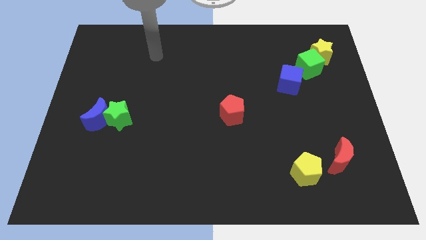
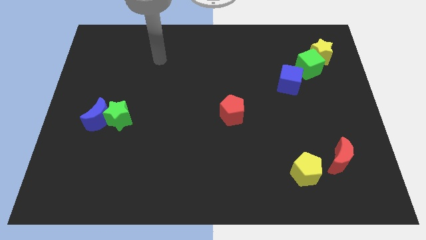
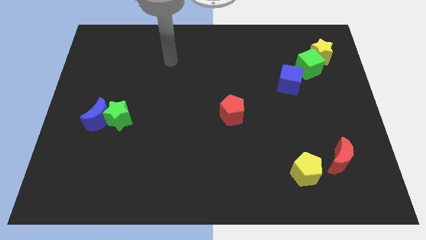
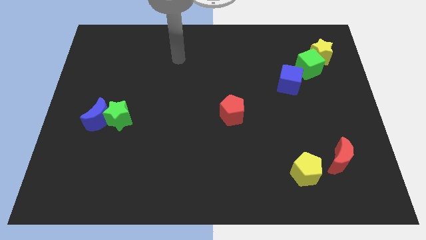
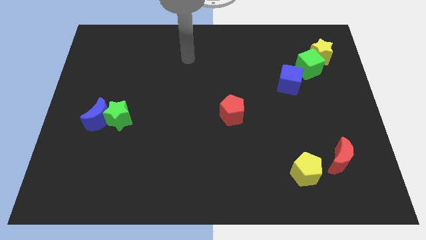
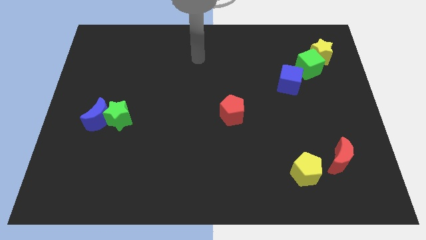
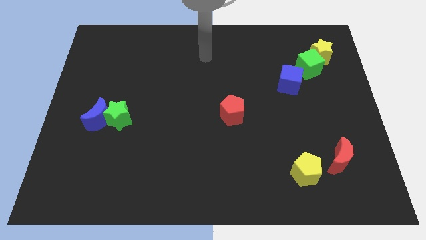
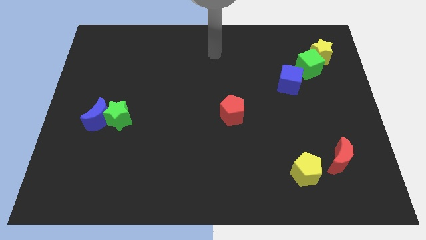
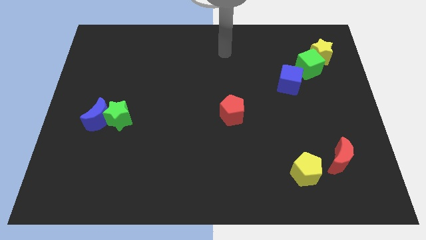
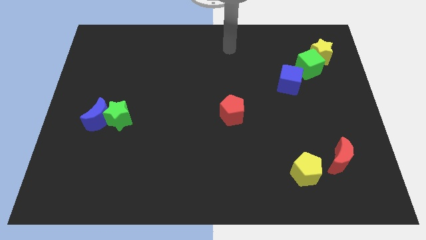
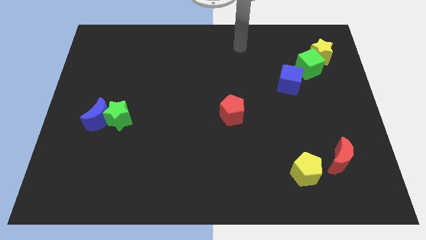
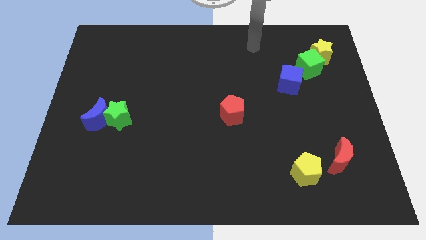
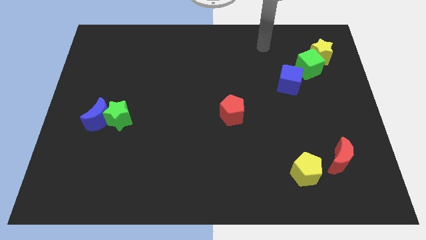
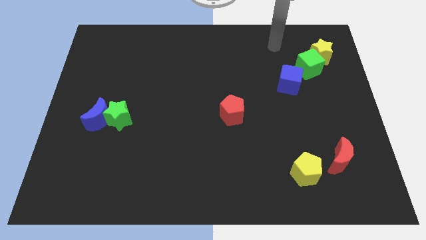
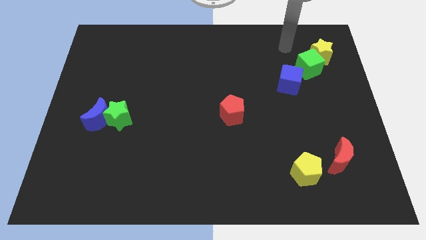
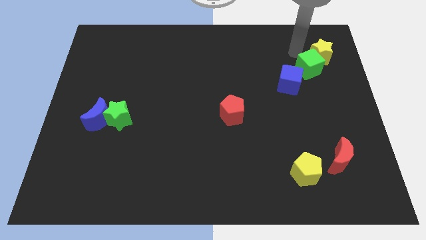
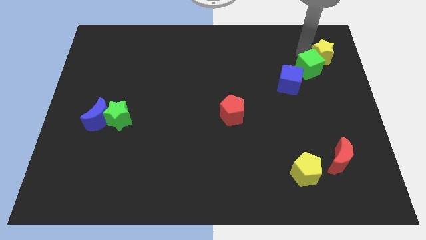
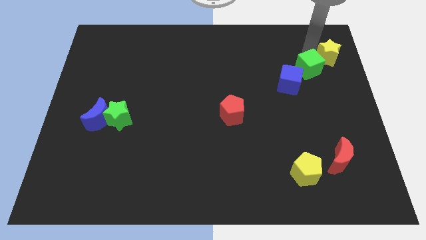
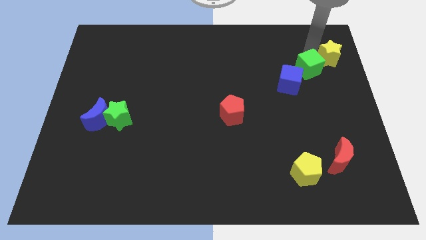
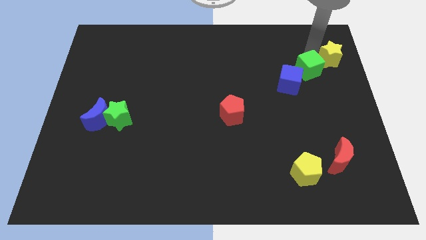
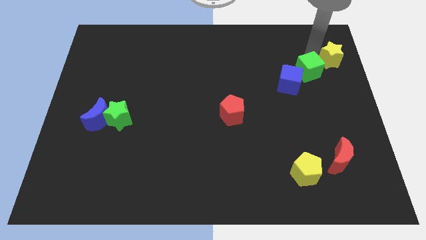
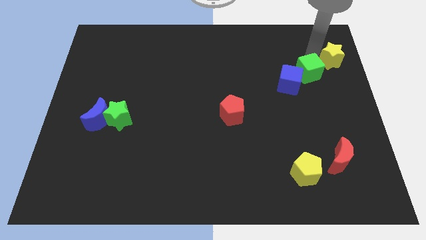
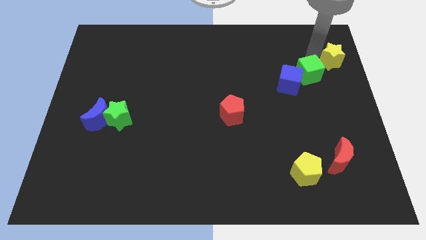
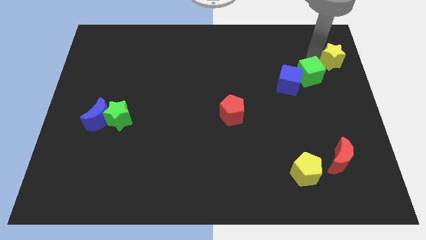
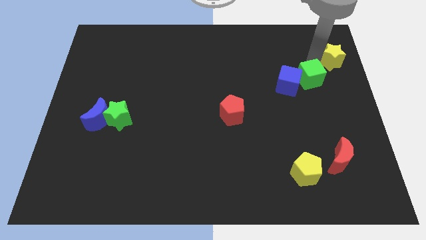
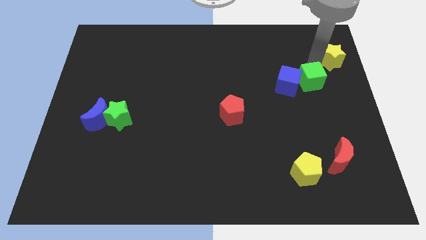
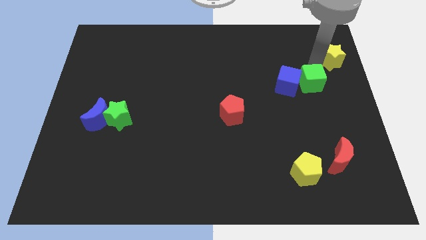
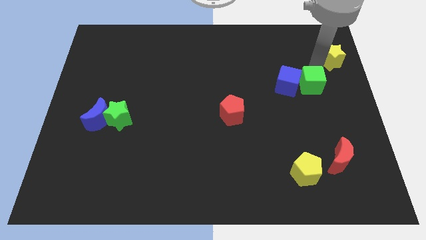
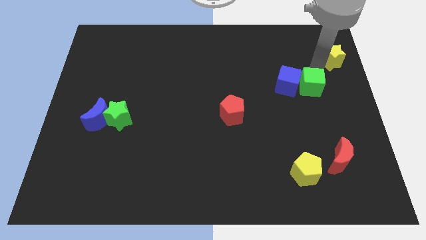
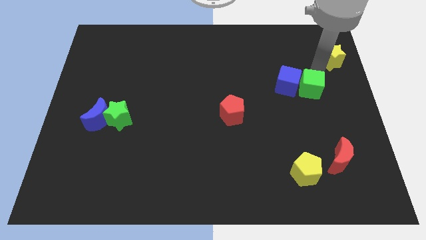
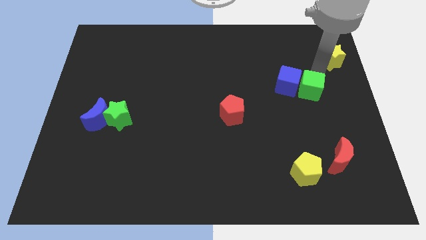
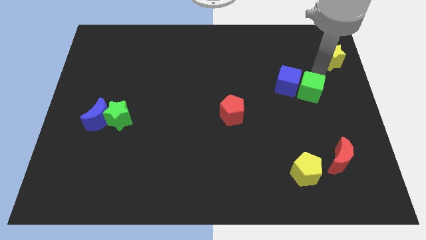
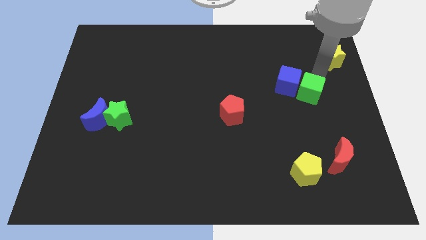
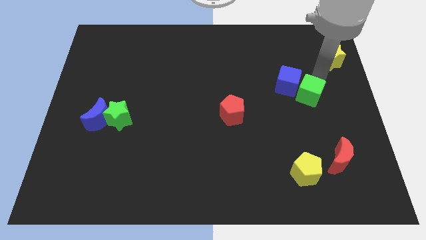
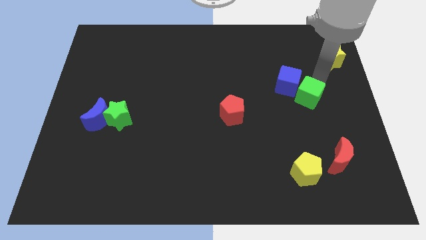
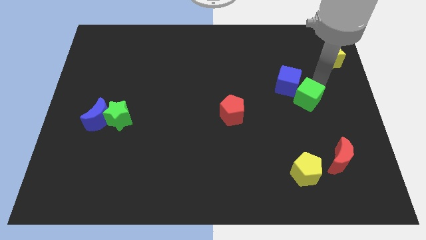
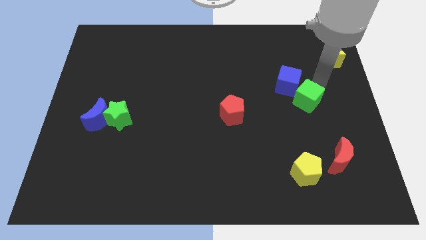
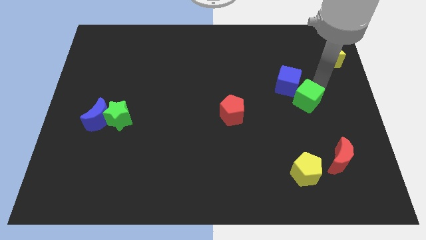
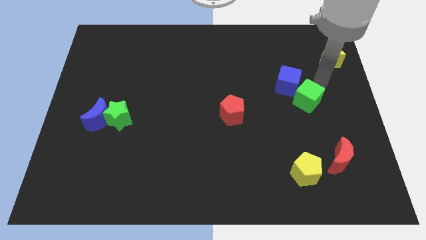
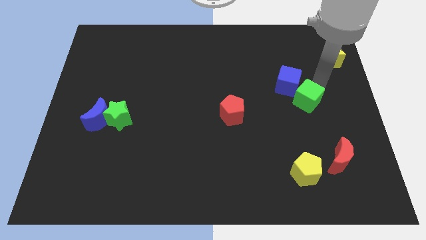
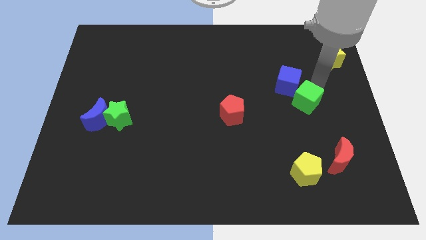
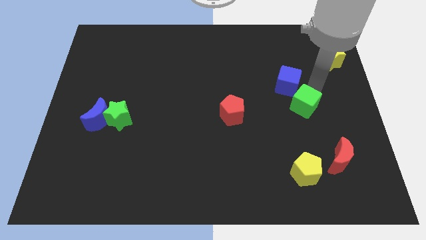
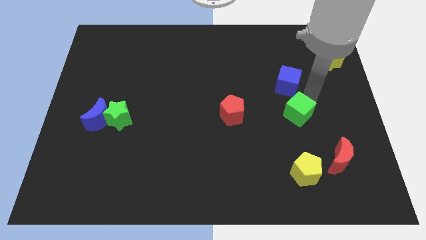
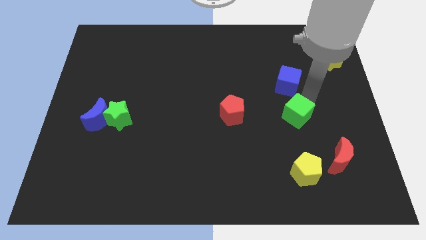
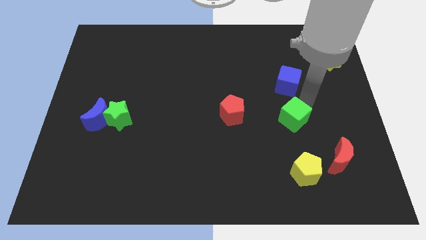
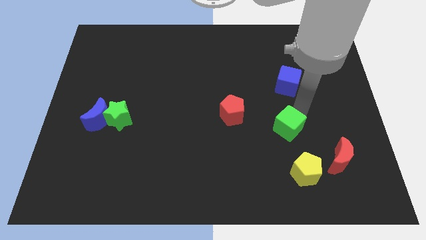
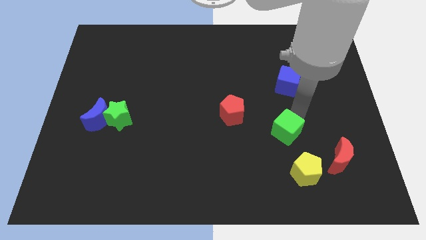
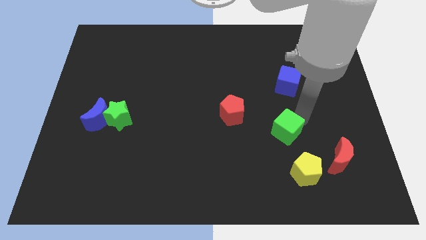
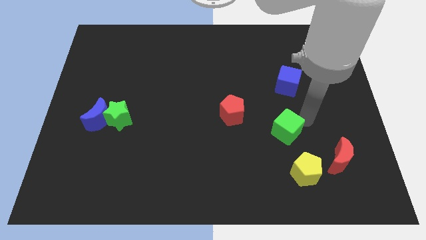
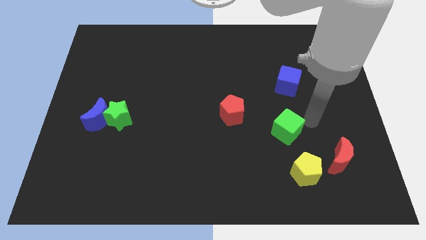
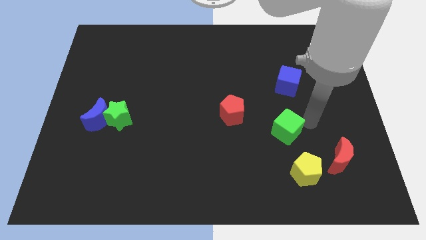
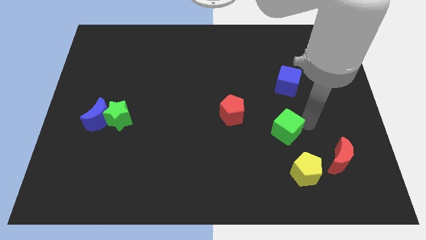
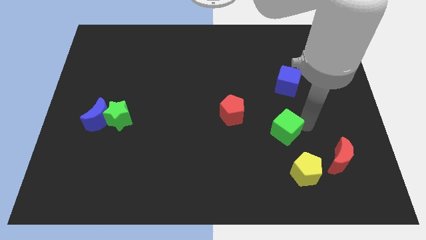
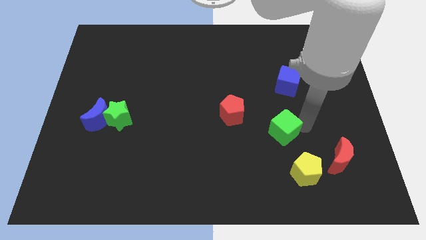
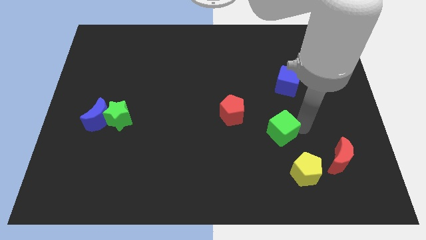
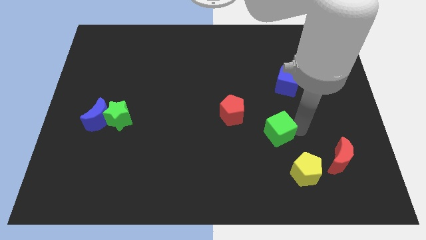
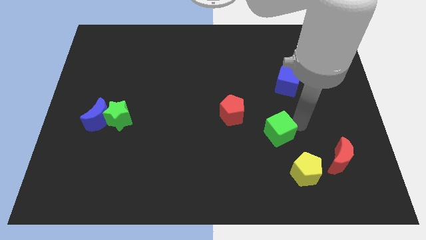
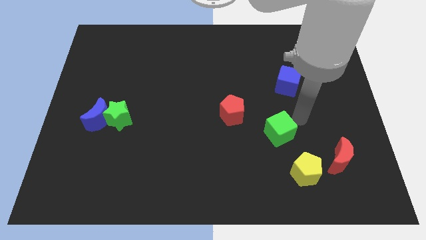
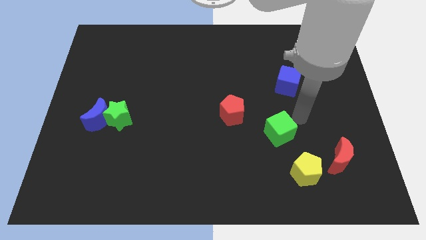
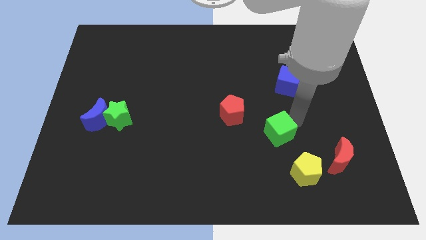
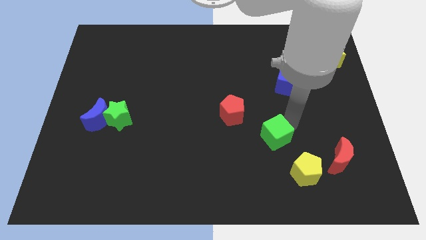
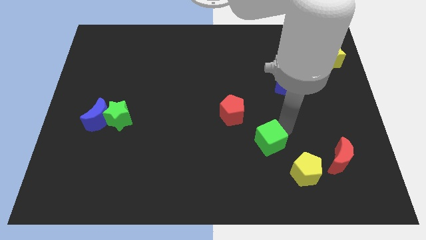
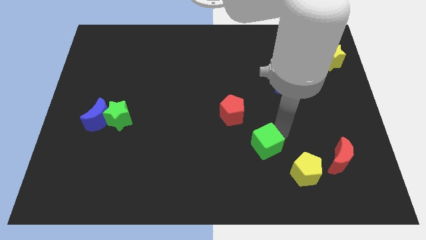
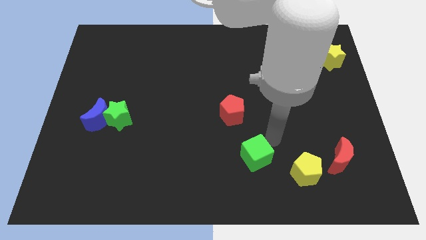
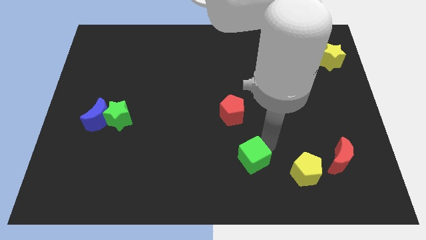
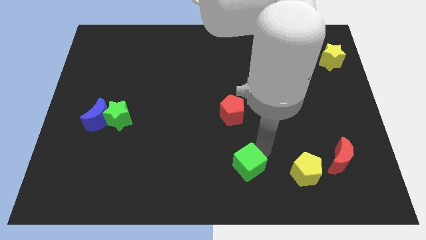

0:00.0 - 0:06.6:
put the green cube to the bottom side

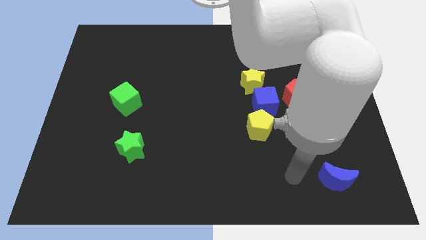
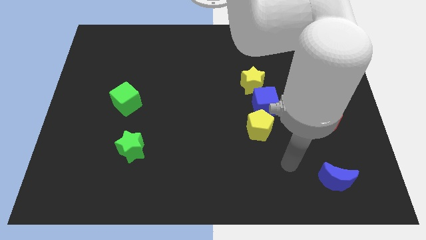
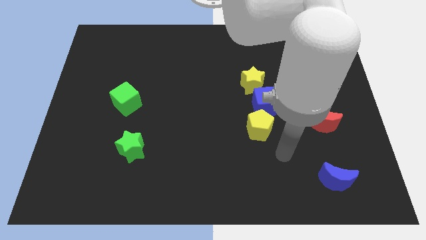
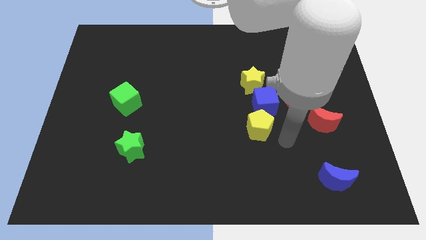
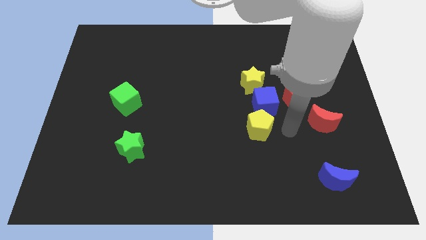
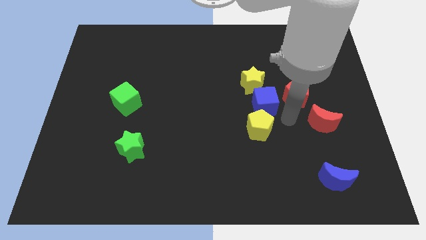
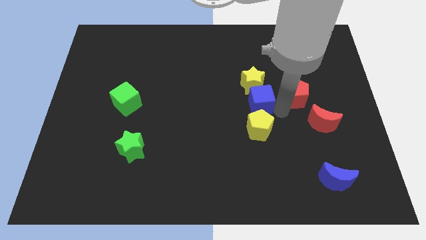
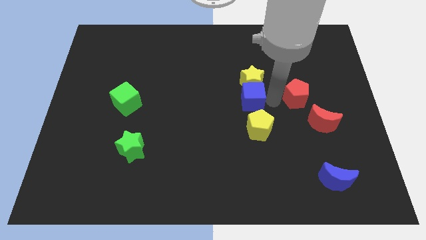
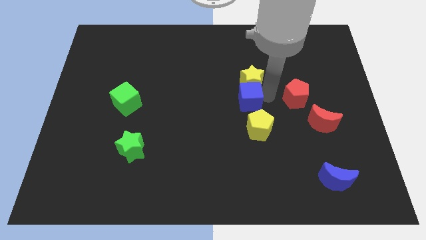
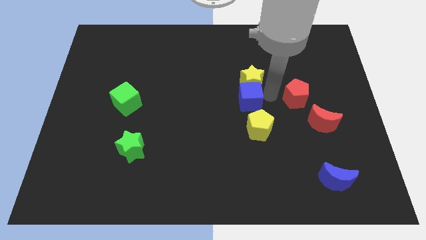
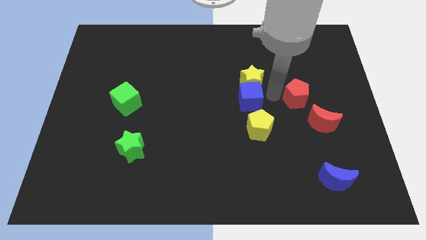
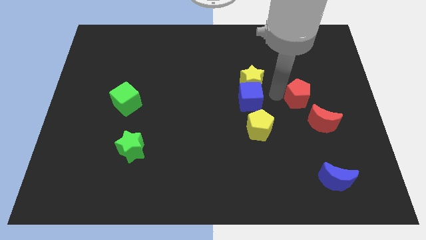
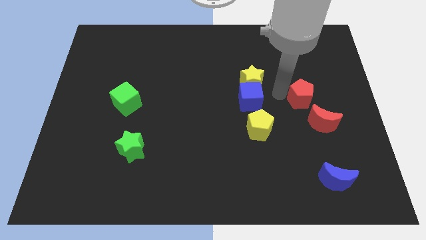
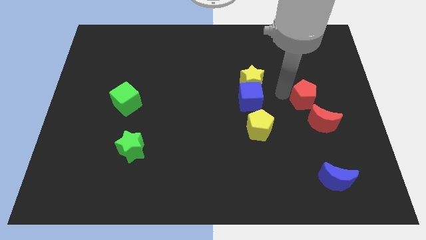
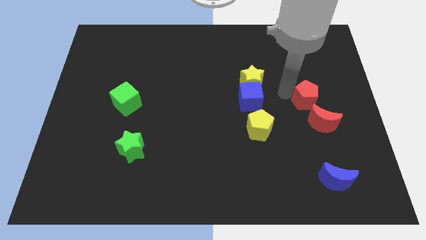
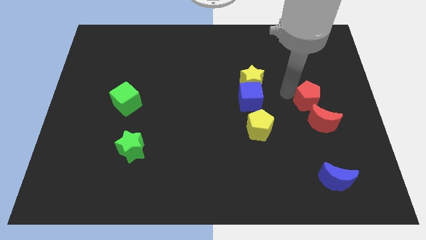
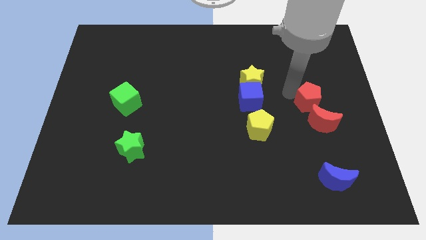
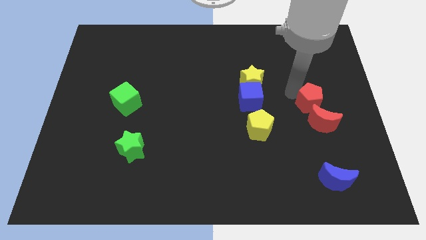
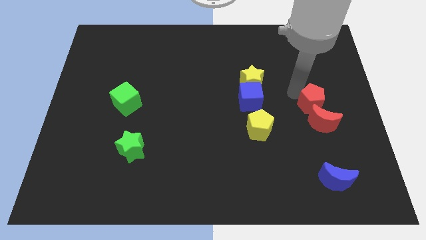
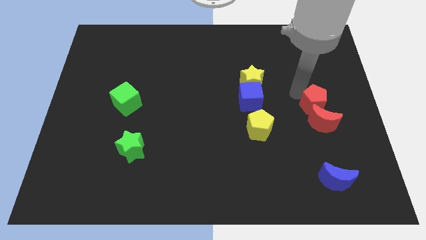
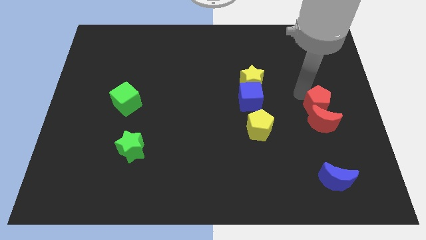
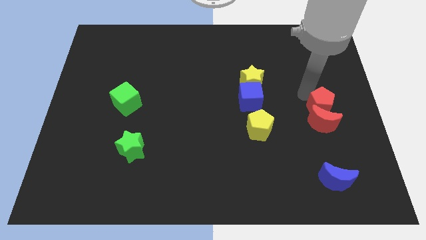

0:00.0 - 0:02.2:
put the red pentagon to the right side
